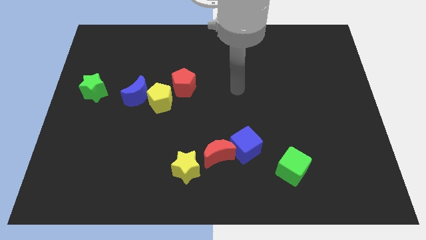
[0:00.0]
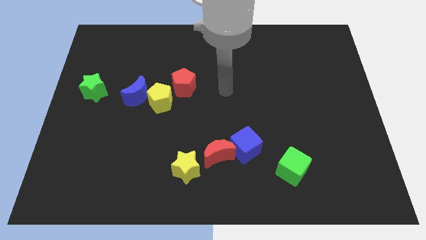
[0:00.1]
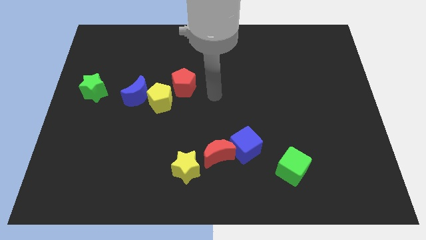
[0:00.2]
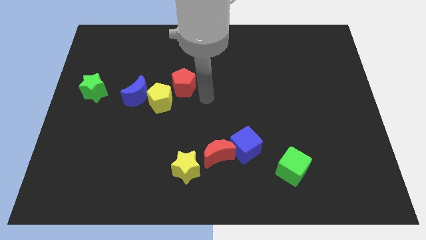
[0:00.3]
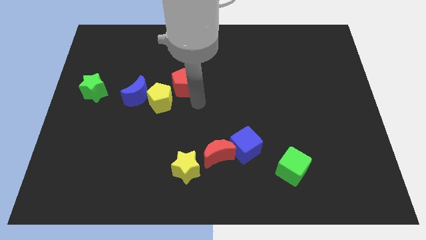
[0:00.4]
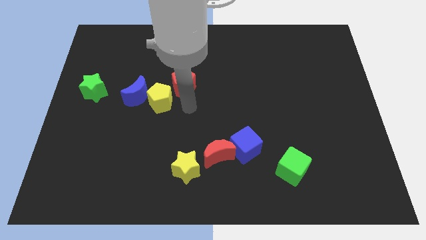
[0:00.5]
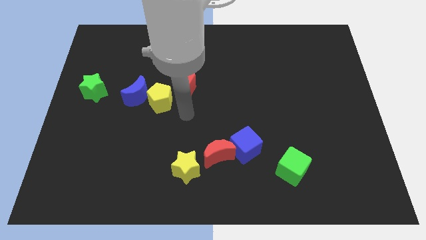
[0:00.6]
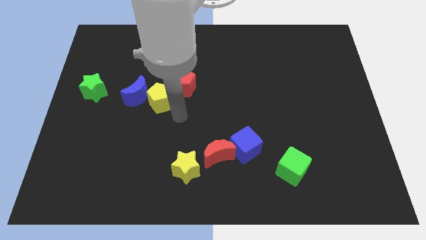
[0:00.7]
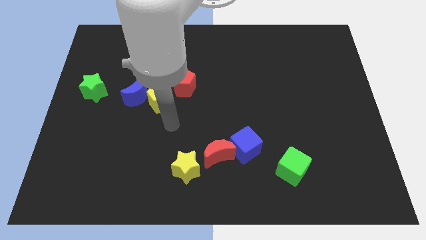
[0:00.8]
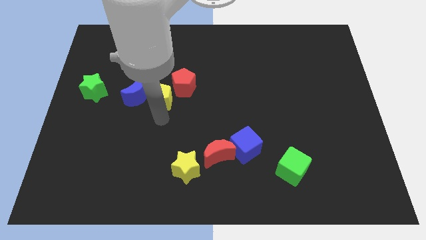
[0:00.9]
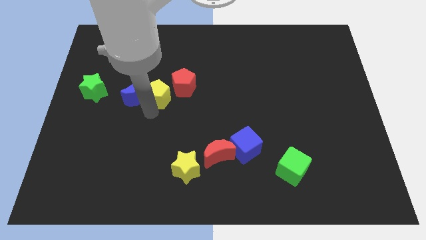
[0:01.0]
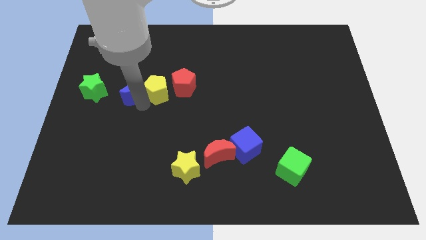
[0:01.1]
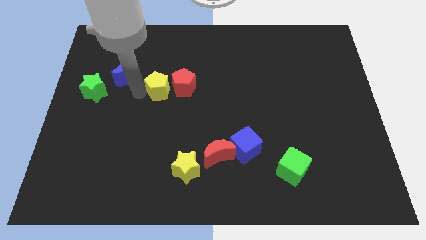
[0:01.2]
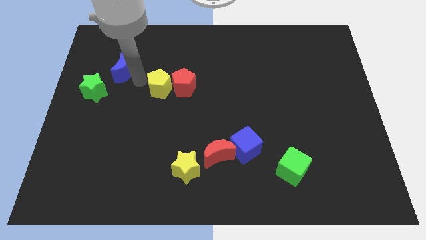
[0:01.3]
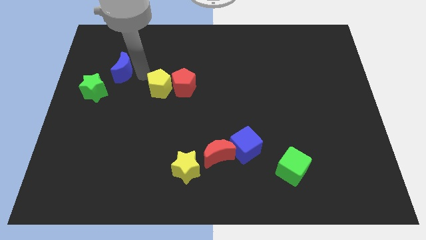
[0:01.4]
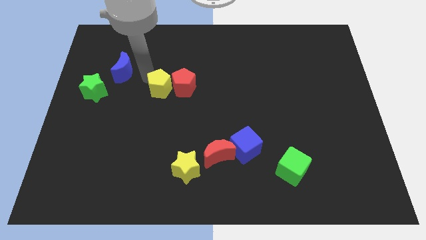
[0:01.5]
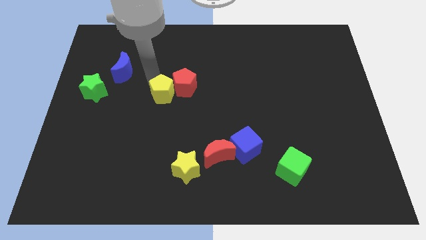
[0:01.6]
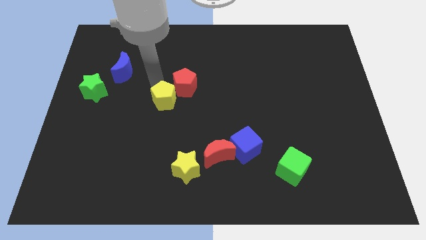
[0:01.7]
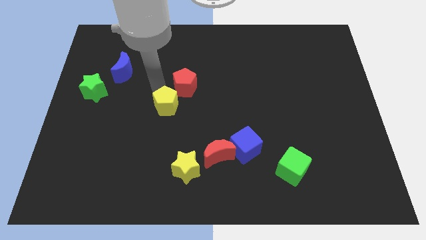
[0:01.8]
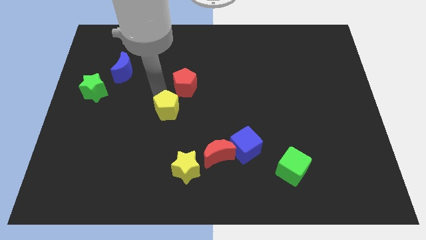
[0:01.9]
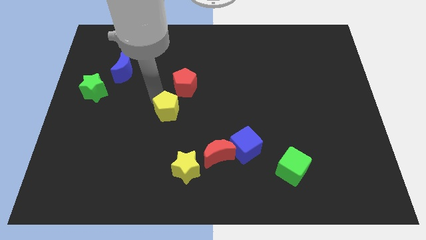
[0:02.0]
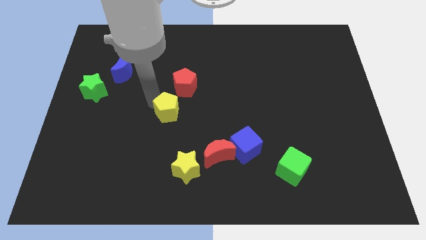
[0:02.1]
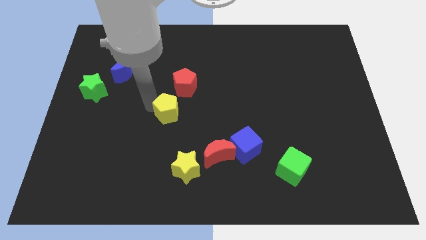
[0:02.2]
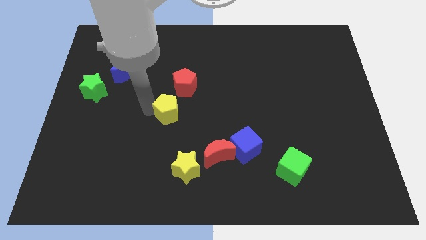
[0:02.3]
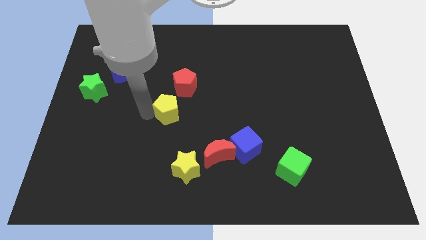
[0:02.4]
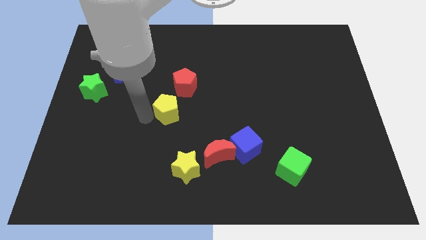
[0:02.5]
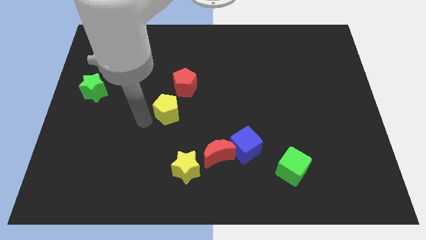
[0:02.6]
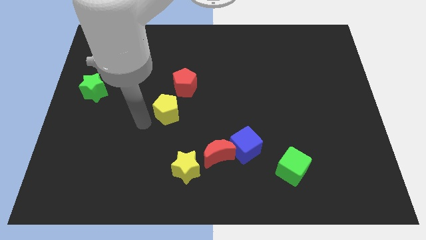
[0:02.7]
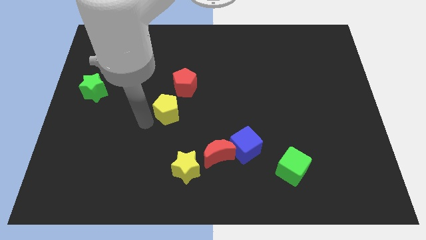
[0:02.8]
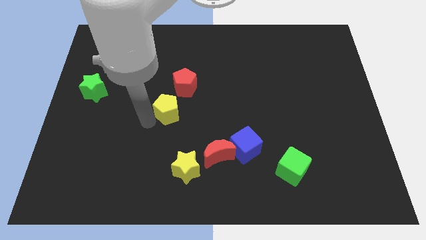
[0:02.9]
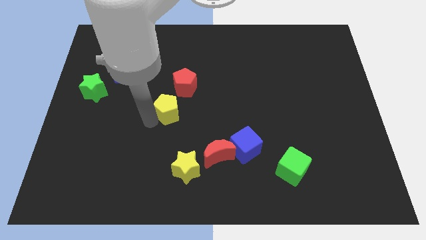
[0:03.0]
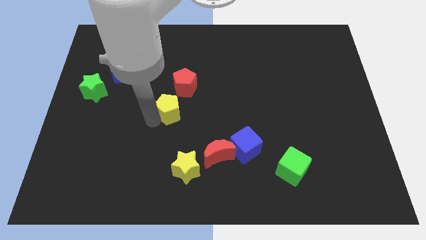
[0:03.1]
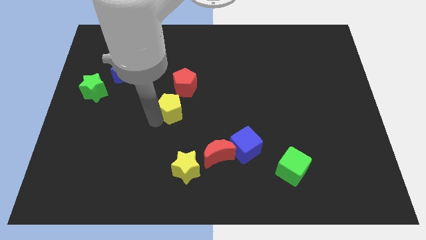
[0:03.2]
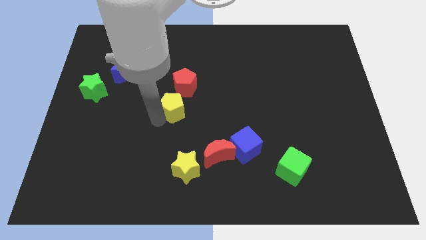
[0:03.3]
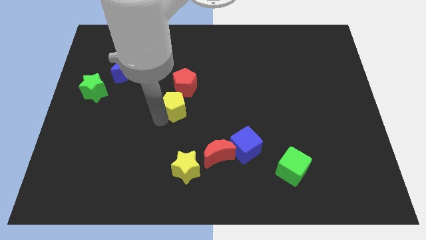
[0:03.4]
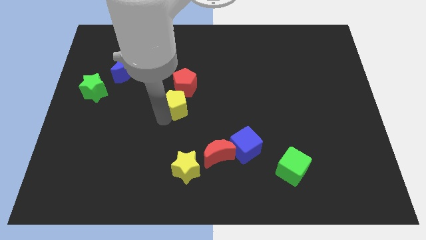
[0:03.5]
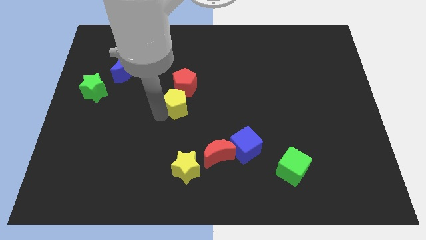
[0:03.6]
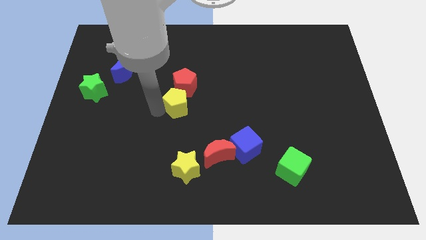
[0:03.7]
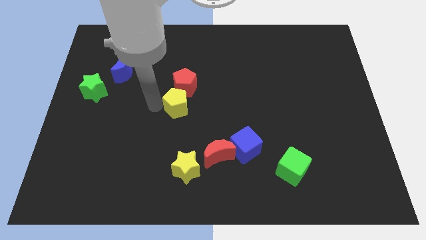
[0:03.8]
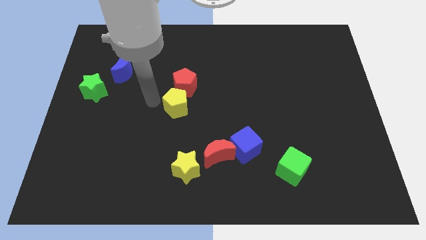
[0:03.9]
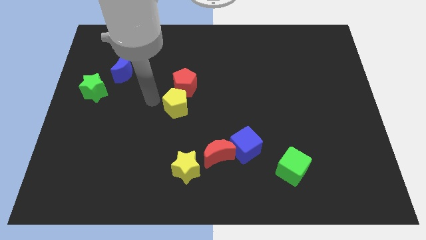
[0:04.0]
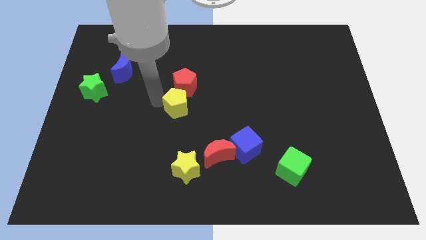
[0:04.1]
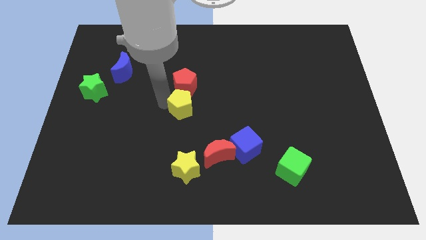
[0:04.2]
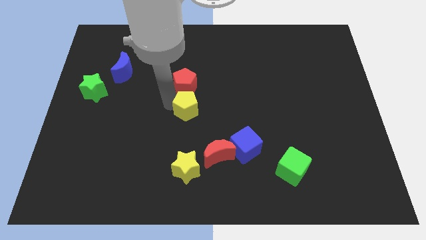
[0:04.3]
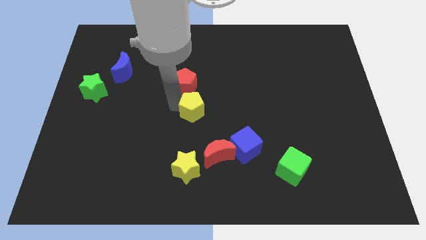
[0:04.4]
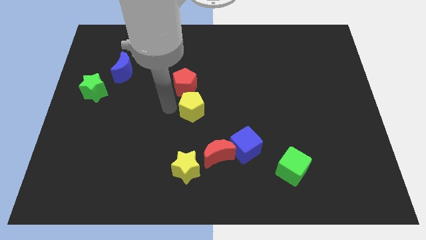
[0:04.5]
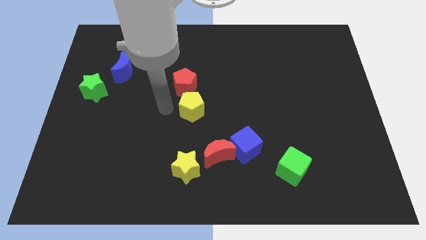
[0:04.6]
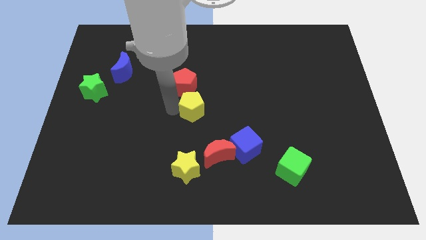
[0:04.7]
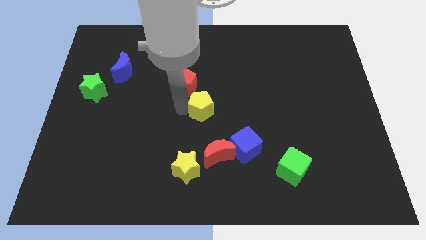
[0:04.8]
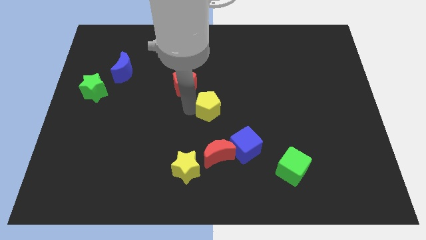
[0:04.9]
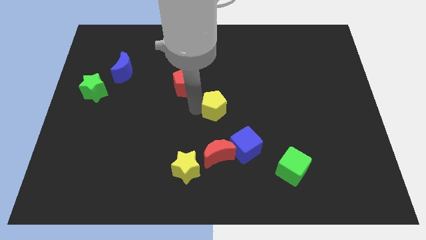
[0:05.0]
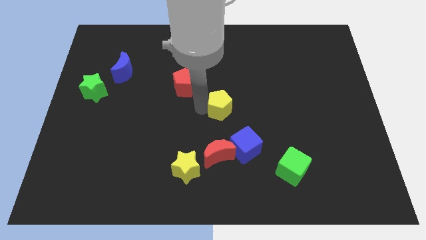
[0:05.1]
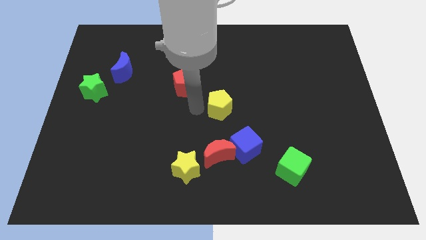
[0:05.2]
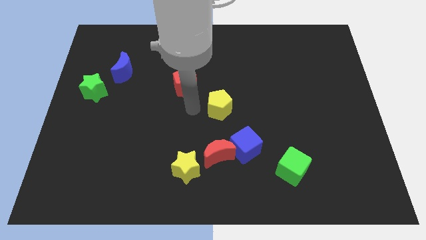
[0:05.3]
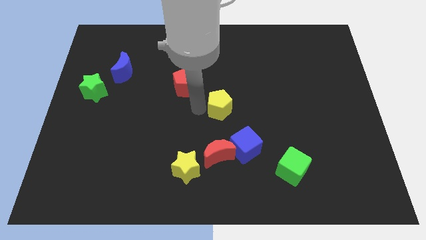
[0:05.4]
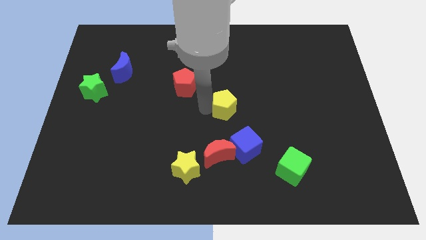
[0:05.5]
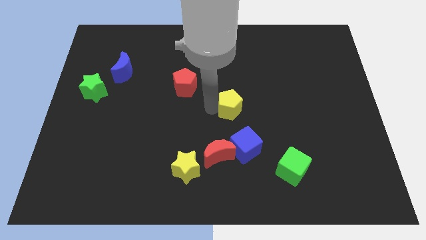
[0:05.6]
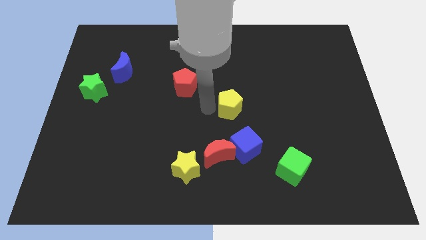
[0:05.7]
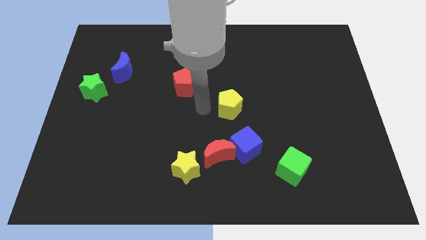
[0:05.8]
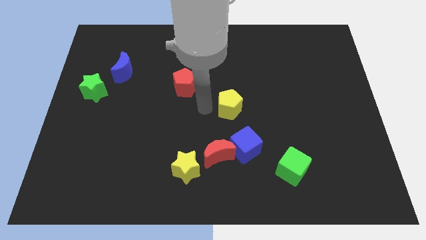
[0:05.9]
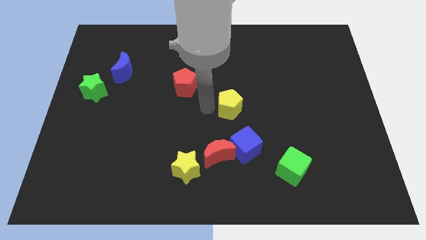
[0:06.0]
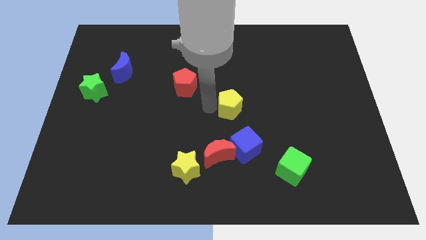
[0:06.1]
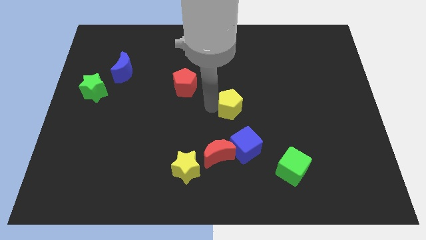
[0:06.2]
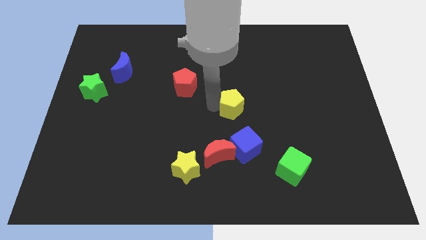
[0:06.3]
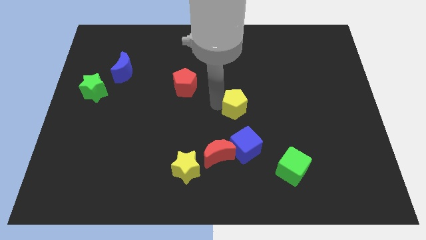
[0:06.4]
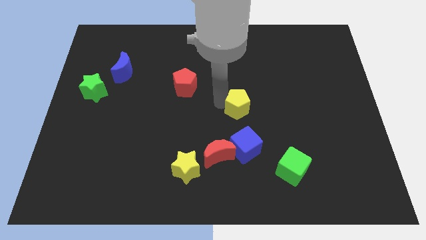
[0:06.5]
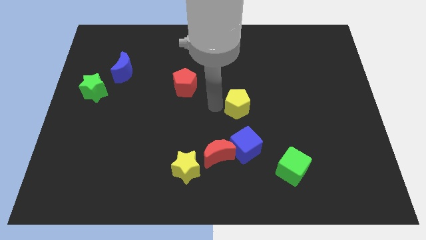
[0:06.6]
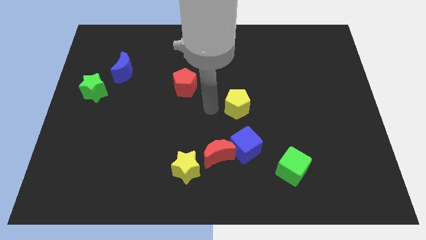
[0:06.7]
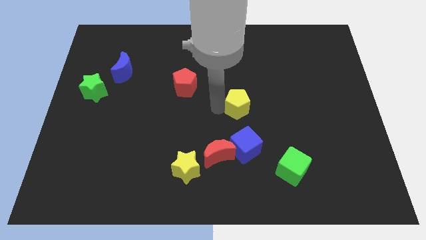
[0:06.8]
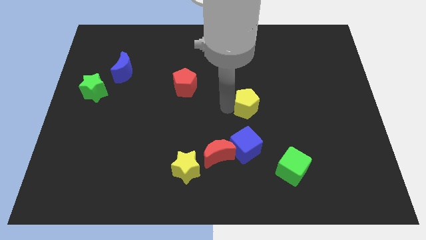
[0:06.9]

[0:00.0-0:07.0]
push the yellow pentagon right

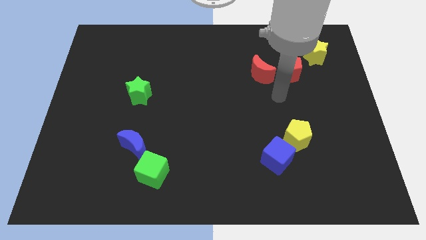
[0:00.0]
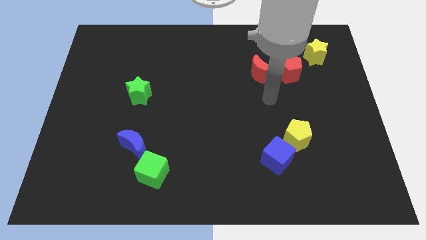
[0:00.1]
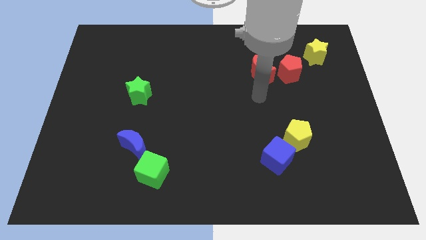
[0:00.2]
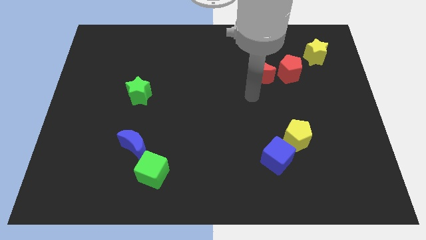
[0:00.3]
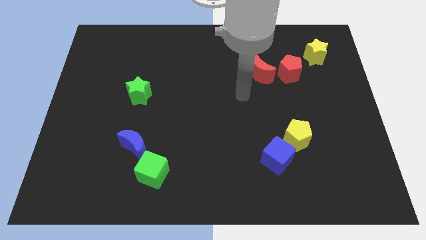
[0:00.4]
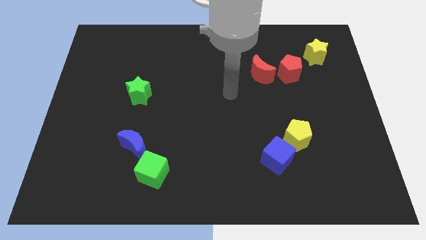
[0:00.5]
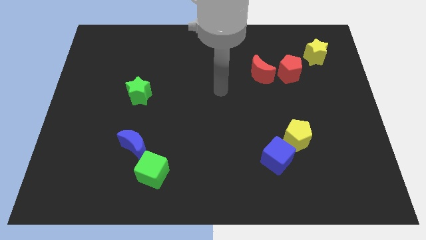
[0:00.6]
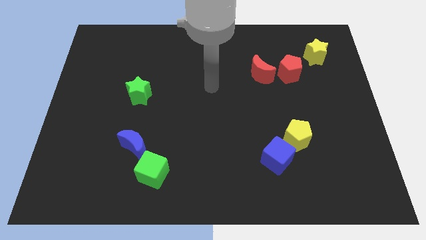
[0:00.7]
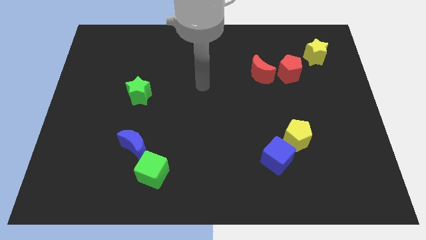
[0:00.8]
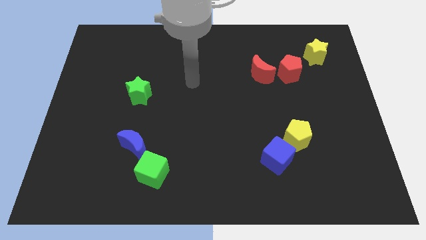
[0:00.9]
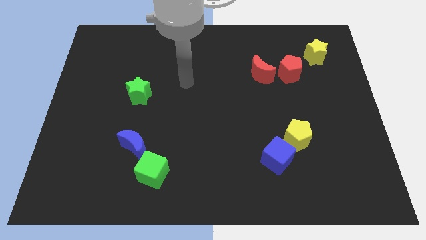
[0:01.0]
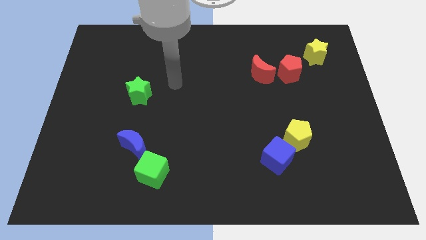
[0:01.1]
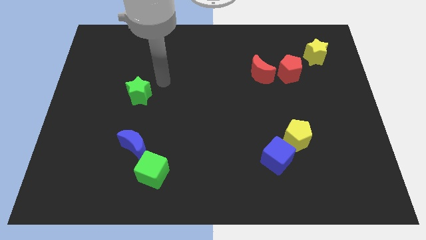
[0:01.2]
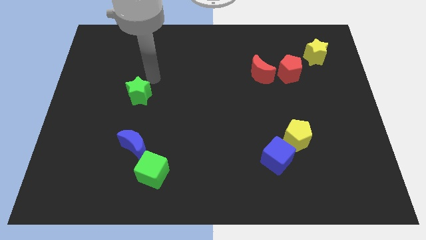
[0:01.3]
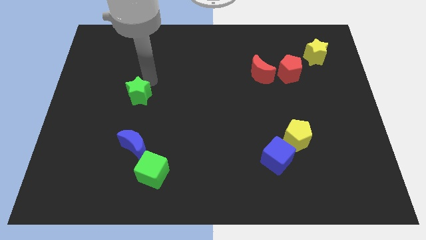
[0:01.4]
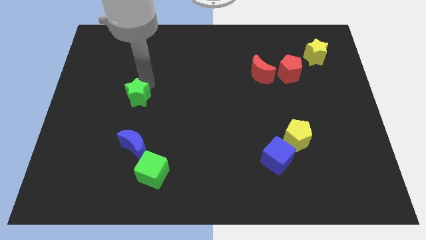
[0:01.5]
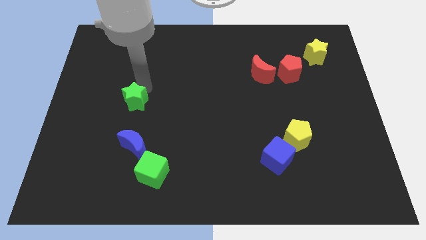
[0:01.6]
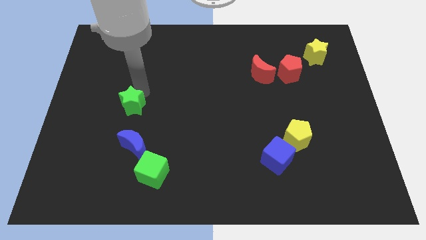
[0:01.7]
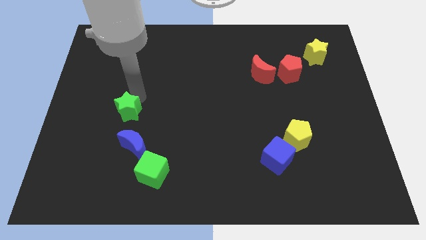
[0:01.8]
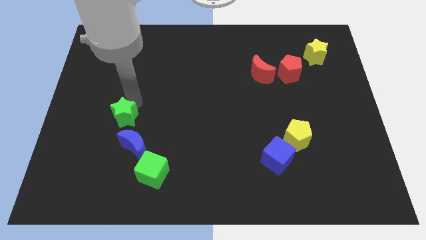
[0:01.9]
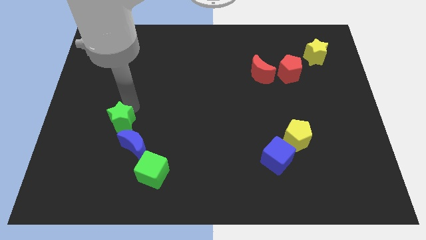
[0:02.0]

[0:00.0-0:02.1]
push the green star somewhat downwards
